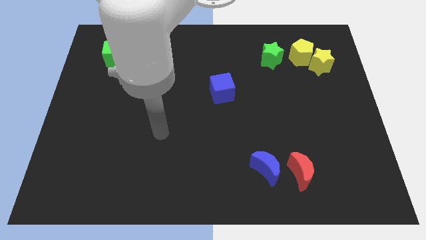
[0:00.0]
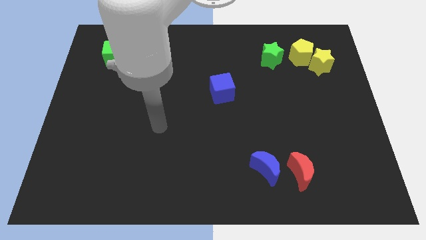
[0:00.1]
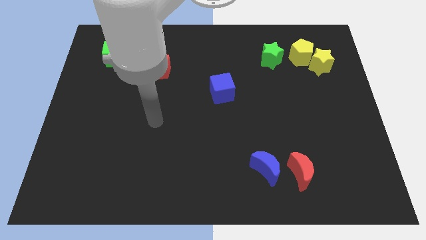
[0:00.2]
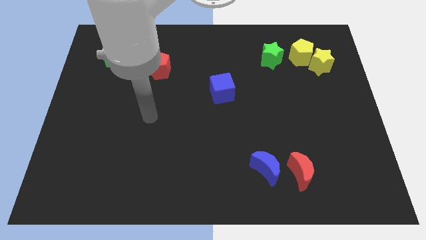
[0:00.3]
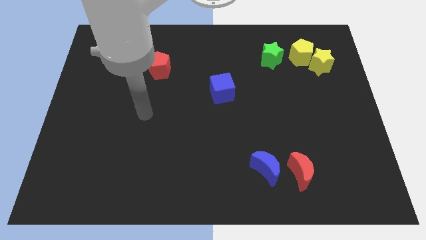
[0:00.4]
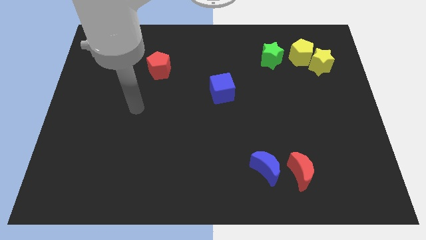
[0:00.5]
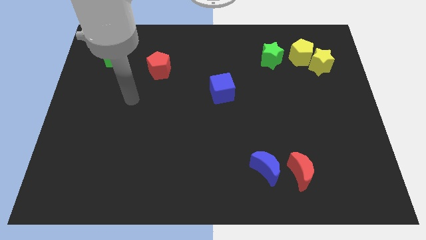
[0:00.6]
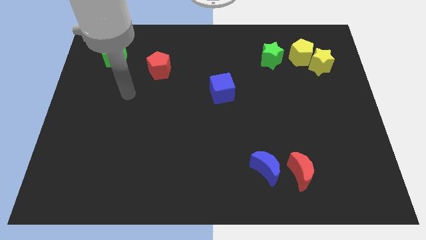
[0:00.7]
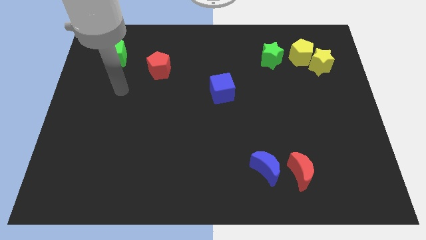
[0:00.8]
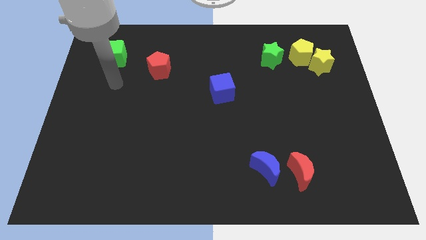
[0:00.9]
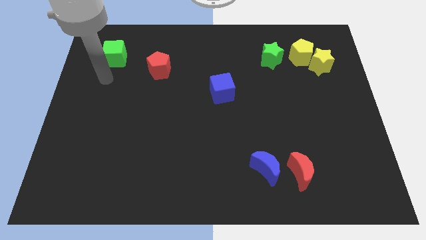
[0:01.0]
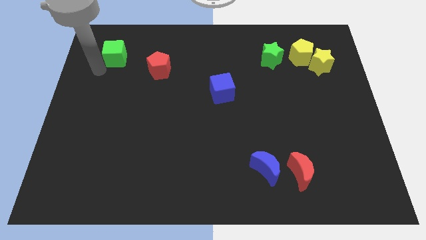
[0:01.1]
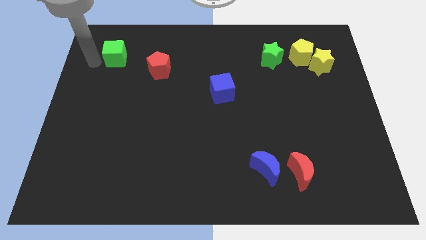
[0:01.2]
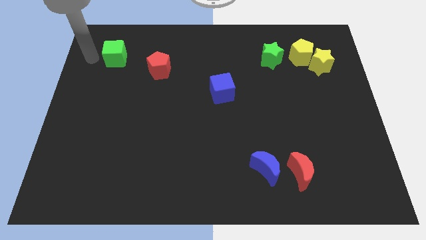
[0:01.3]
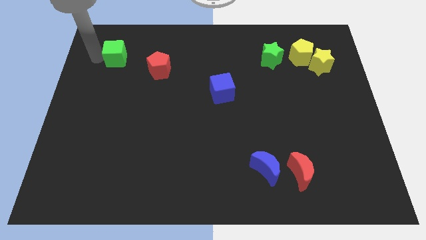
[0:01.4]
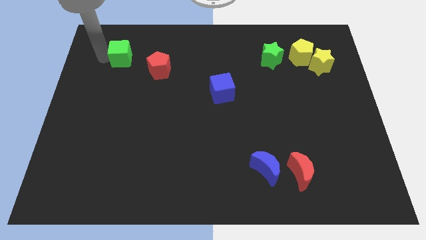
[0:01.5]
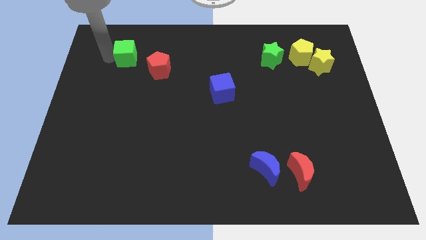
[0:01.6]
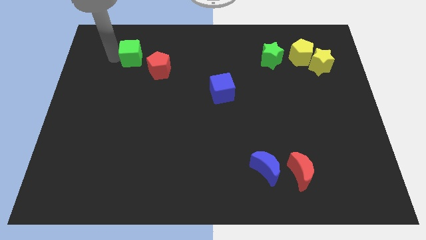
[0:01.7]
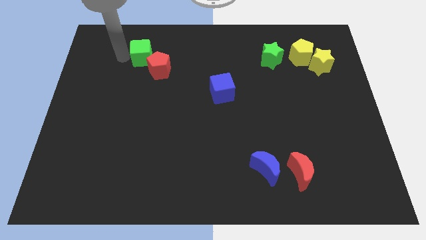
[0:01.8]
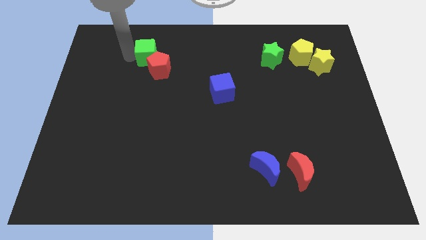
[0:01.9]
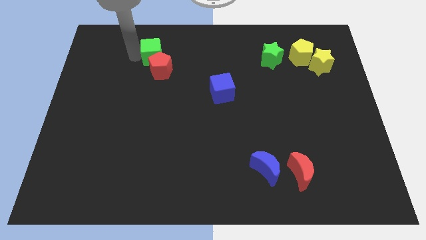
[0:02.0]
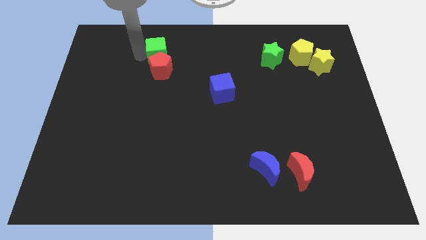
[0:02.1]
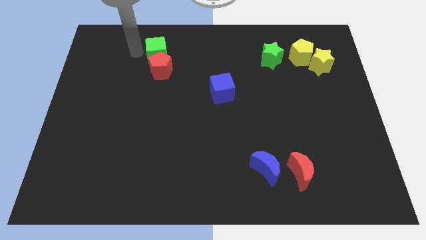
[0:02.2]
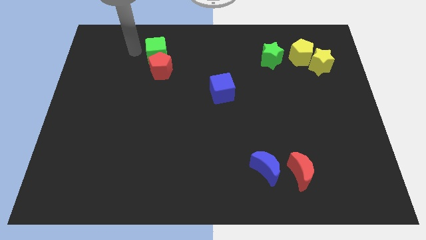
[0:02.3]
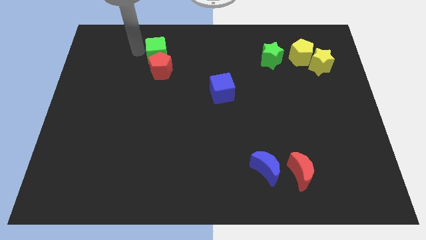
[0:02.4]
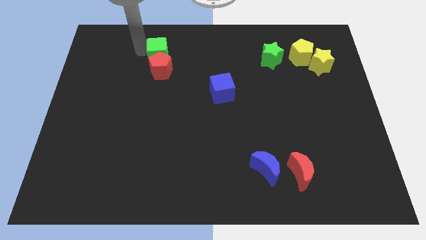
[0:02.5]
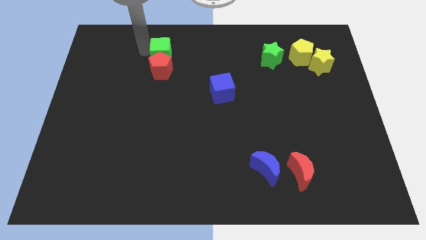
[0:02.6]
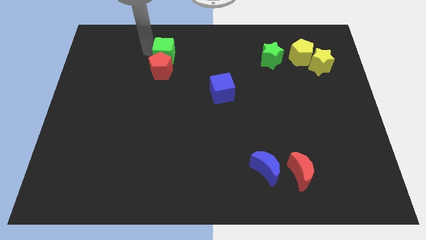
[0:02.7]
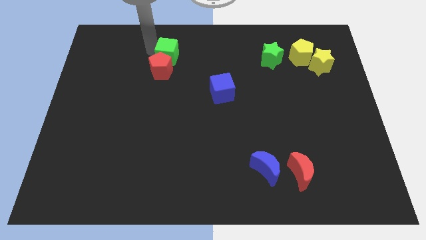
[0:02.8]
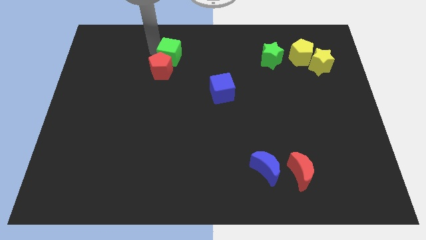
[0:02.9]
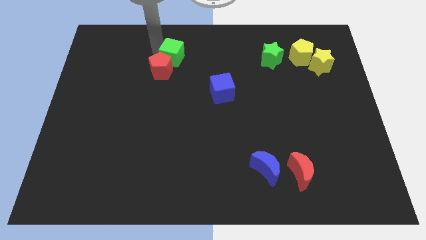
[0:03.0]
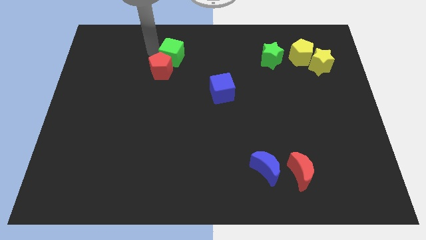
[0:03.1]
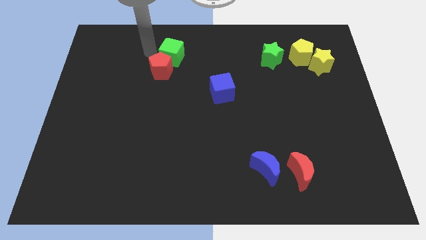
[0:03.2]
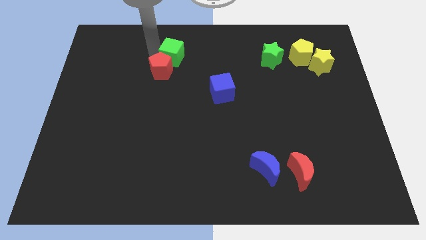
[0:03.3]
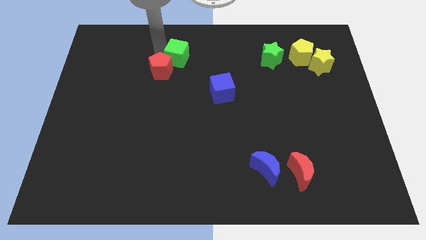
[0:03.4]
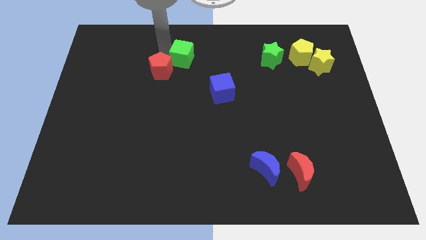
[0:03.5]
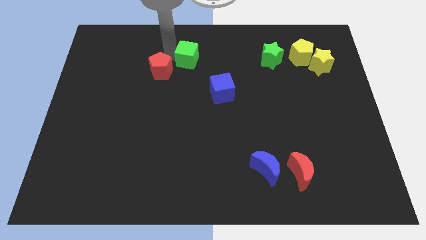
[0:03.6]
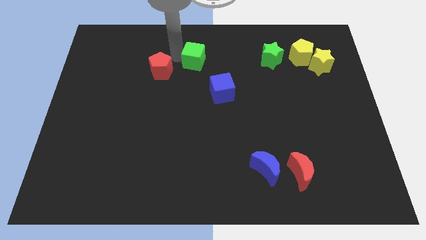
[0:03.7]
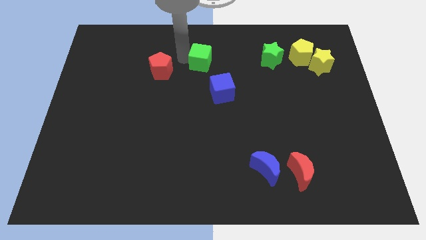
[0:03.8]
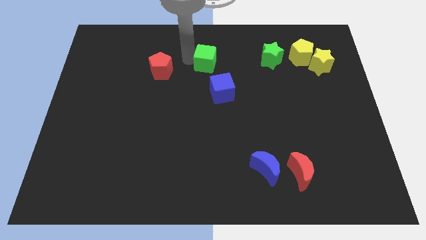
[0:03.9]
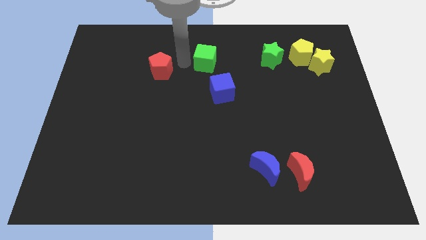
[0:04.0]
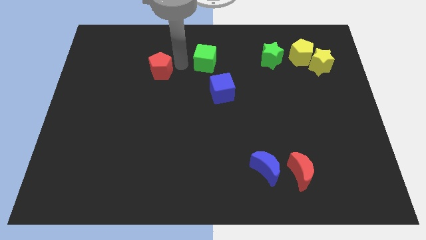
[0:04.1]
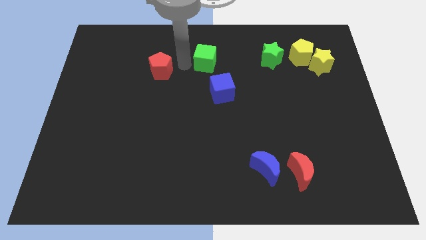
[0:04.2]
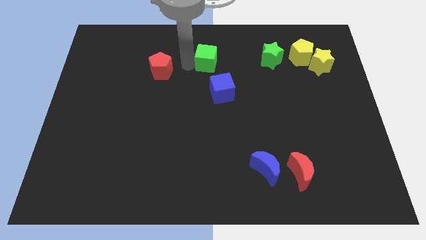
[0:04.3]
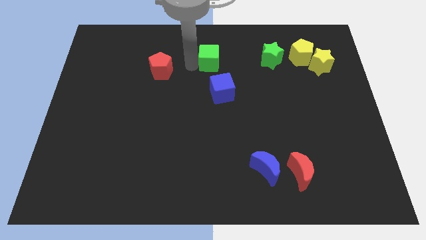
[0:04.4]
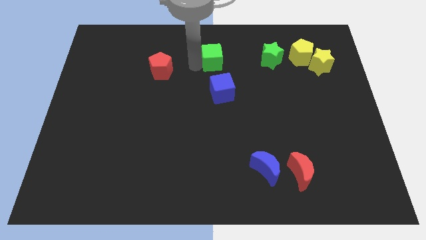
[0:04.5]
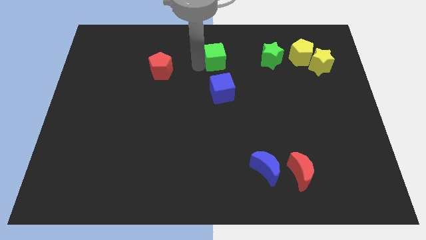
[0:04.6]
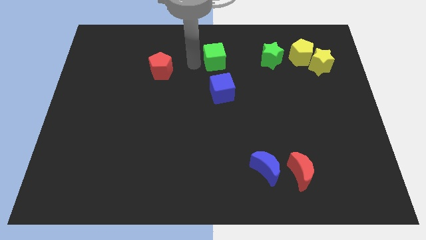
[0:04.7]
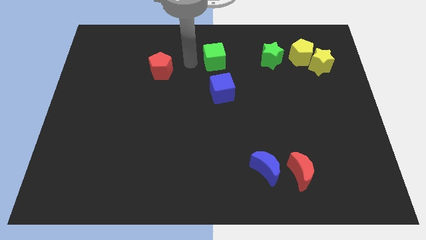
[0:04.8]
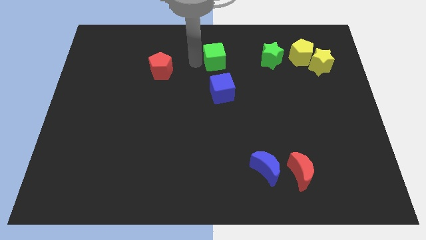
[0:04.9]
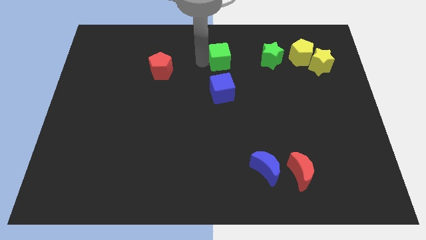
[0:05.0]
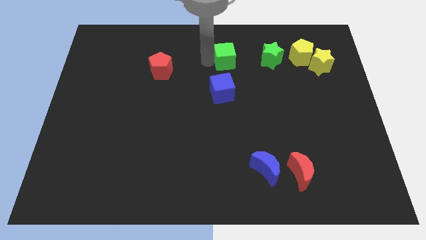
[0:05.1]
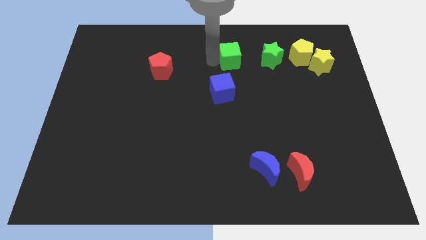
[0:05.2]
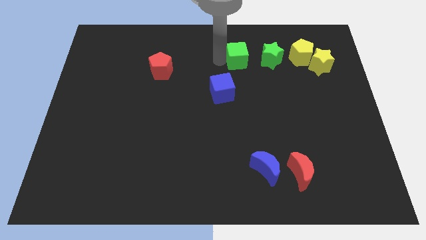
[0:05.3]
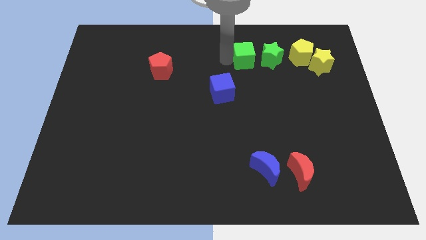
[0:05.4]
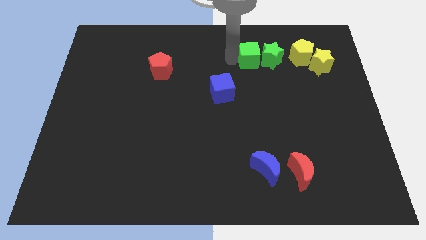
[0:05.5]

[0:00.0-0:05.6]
put the green cube next to the green star

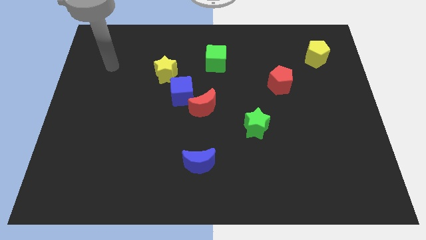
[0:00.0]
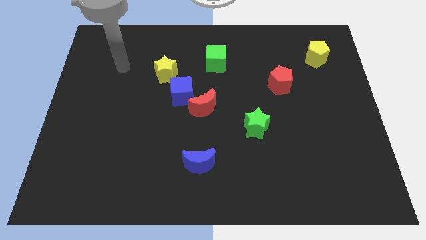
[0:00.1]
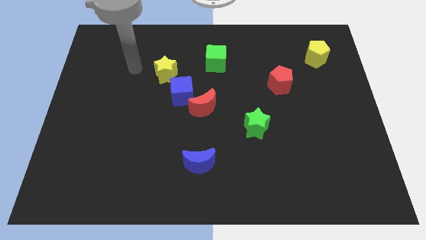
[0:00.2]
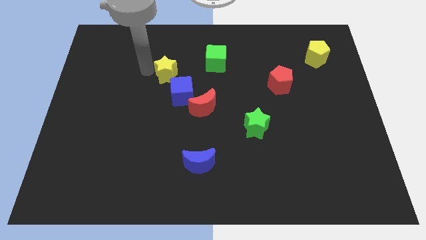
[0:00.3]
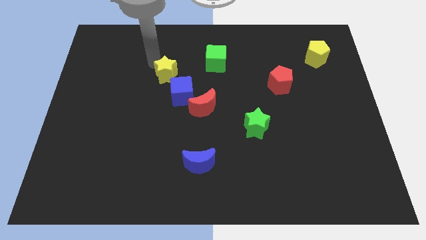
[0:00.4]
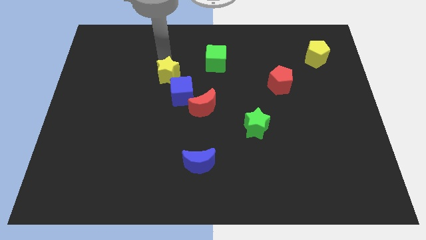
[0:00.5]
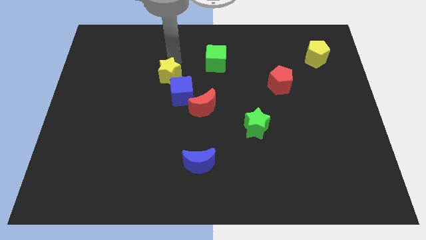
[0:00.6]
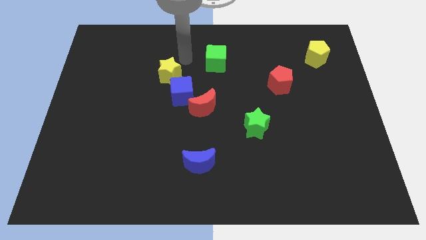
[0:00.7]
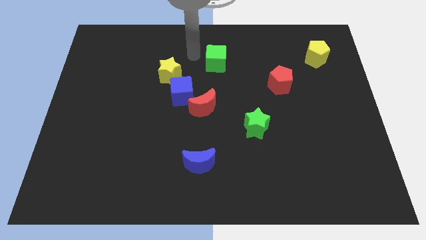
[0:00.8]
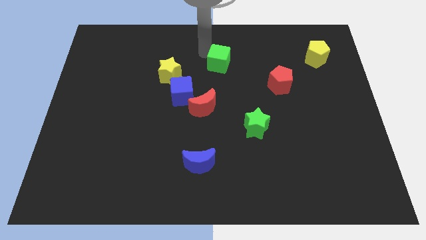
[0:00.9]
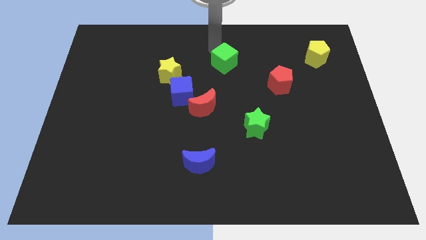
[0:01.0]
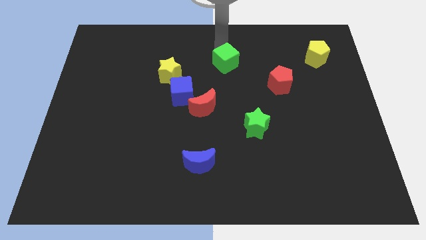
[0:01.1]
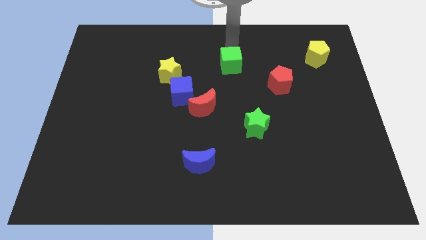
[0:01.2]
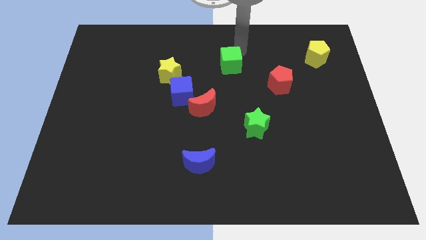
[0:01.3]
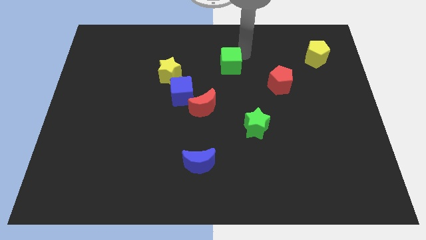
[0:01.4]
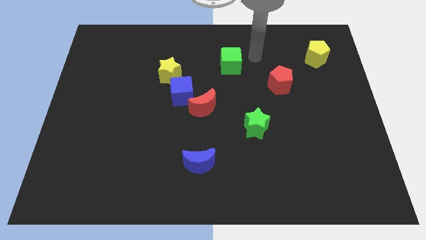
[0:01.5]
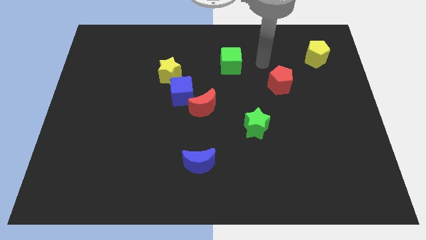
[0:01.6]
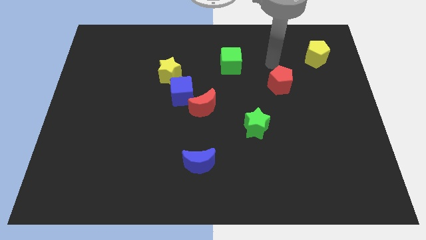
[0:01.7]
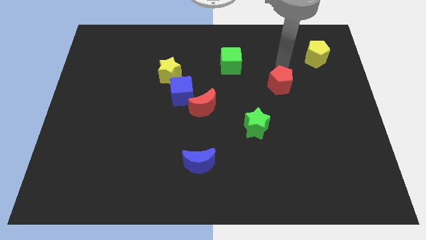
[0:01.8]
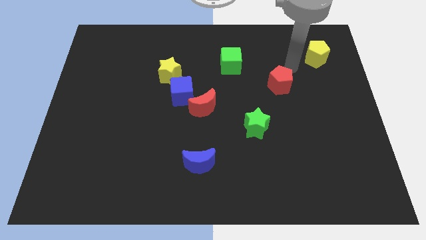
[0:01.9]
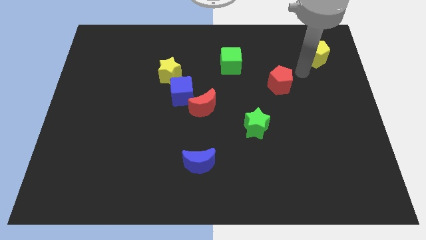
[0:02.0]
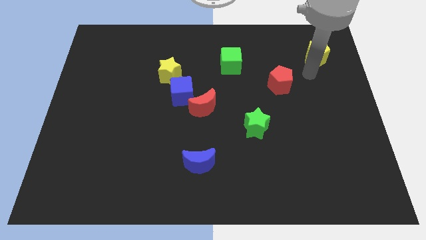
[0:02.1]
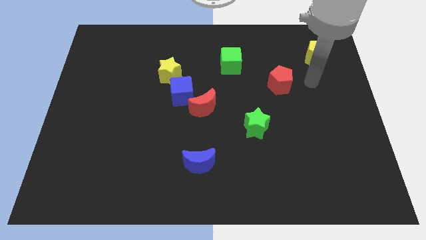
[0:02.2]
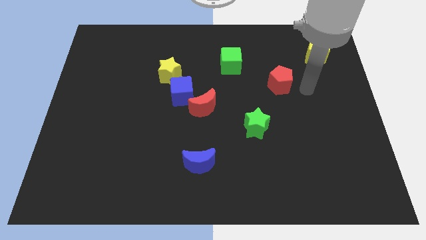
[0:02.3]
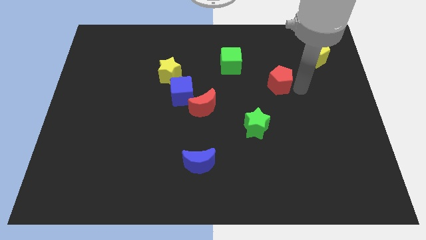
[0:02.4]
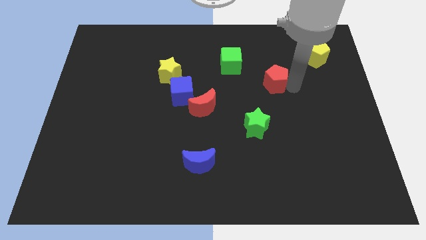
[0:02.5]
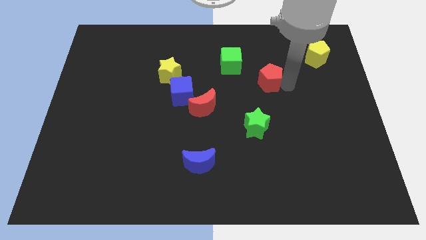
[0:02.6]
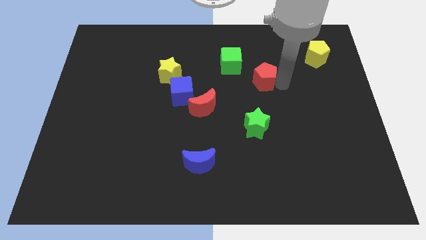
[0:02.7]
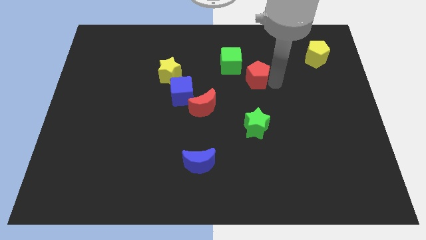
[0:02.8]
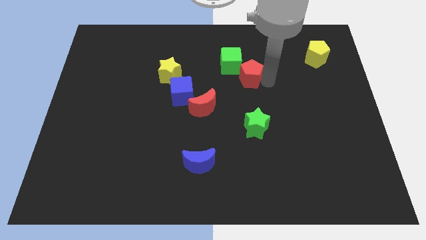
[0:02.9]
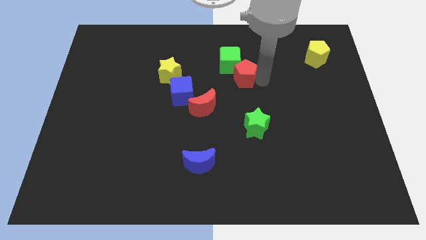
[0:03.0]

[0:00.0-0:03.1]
slide the red pentagon next to the green cube
